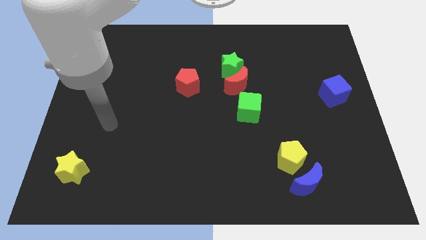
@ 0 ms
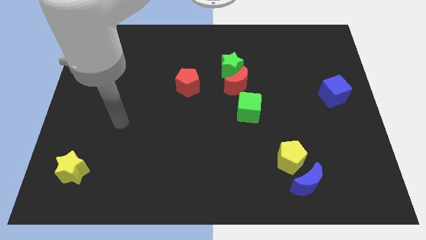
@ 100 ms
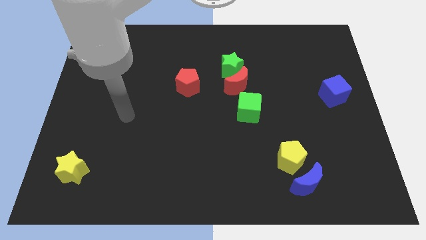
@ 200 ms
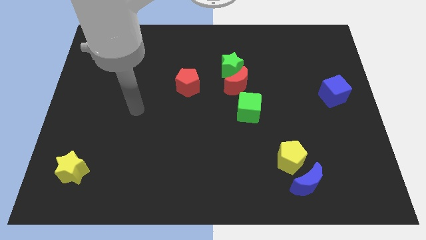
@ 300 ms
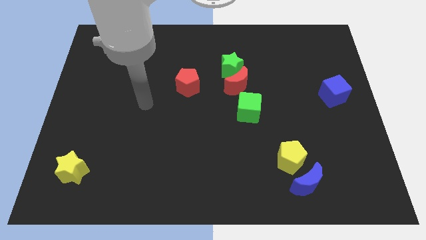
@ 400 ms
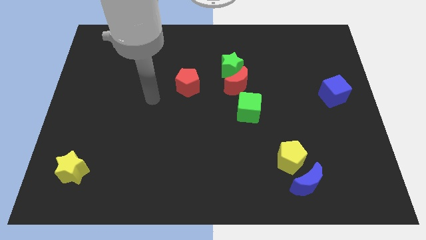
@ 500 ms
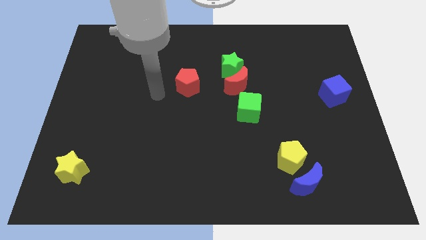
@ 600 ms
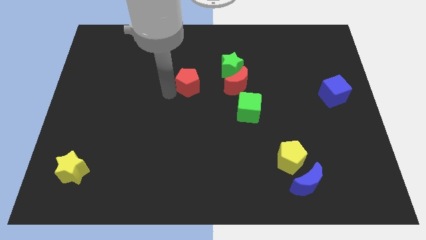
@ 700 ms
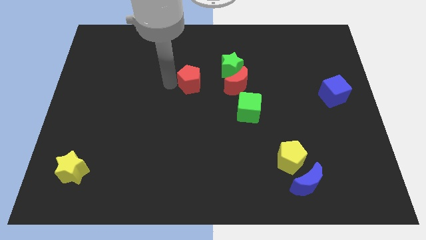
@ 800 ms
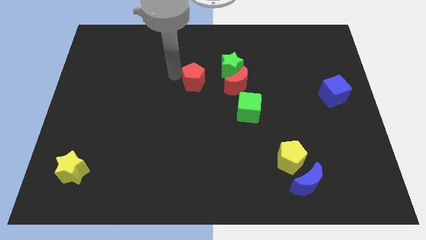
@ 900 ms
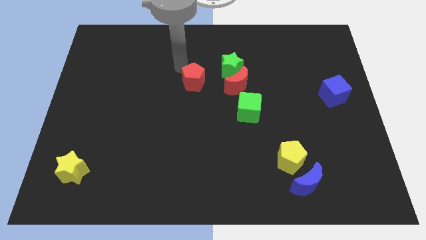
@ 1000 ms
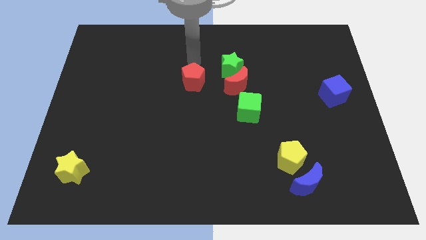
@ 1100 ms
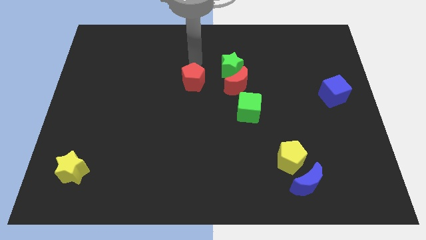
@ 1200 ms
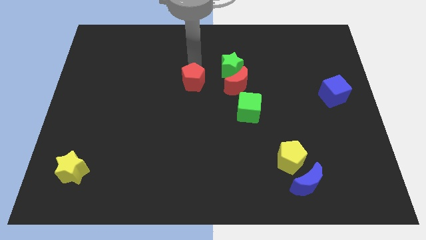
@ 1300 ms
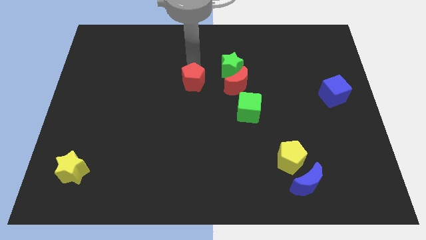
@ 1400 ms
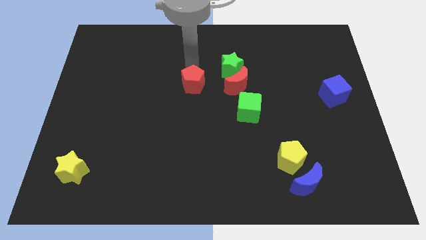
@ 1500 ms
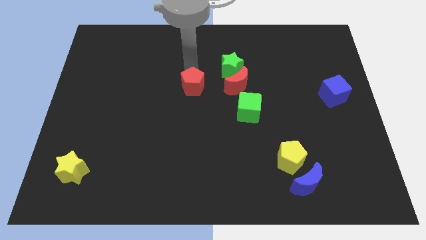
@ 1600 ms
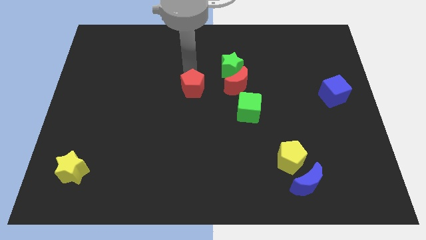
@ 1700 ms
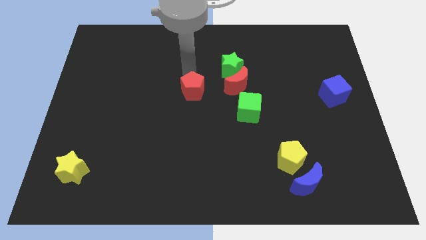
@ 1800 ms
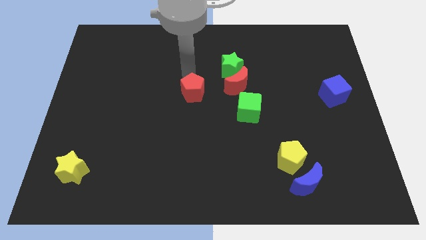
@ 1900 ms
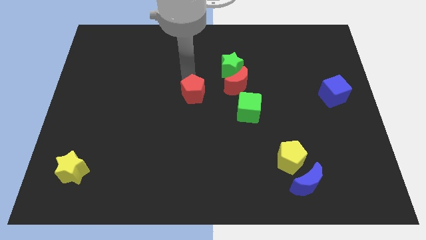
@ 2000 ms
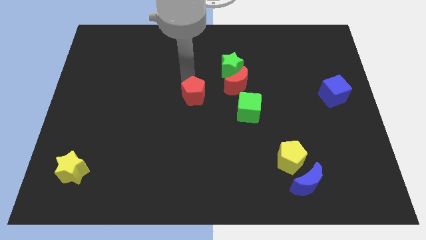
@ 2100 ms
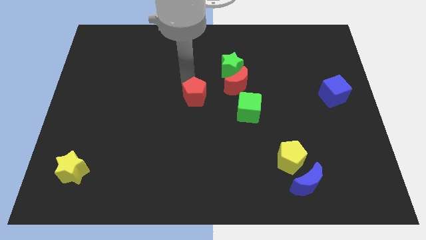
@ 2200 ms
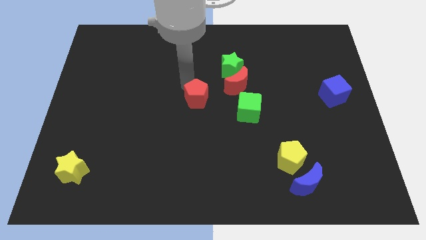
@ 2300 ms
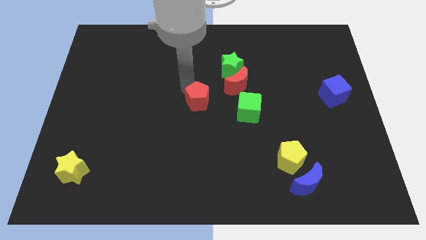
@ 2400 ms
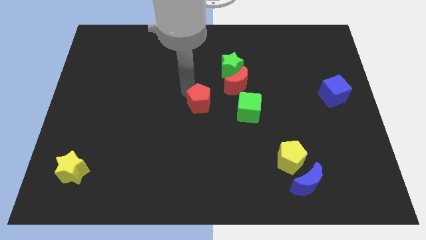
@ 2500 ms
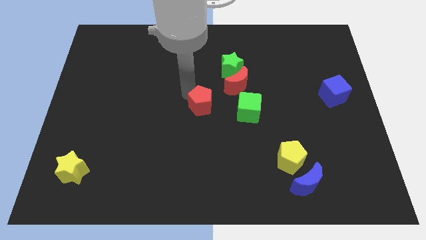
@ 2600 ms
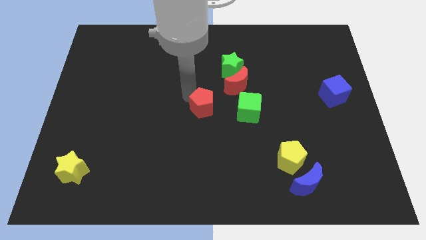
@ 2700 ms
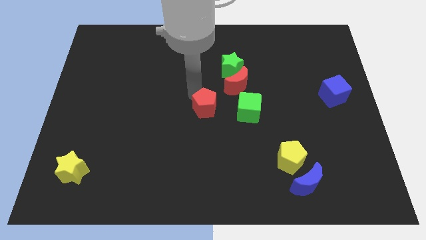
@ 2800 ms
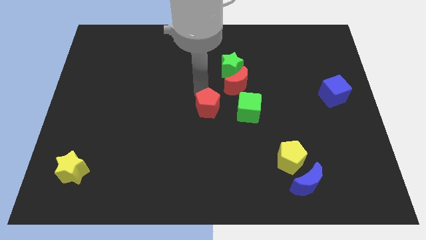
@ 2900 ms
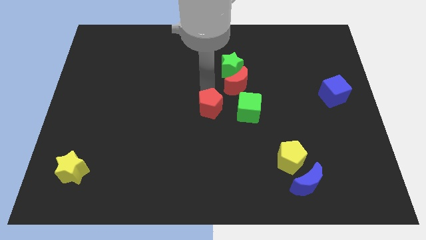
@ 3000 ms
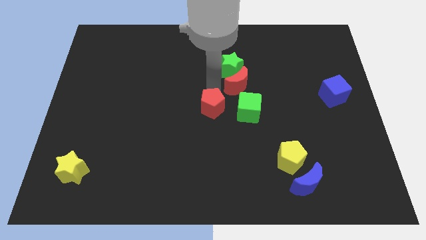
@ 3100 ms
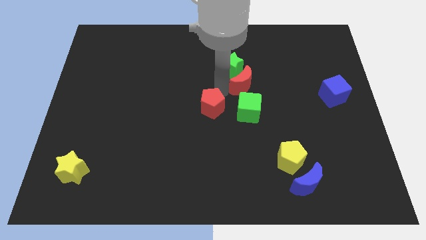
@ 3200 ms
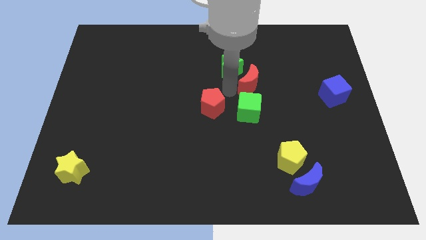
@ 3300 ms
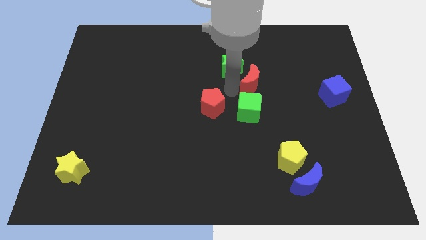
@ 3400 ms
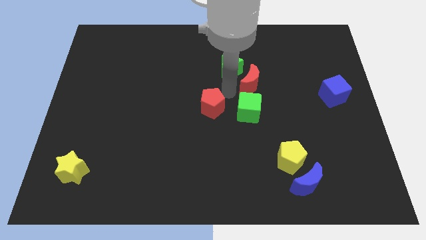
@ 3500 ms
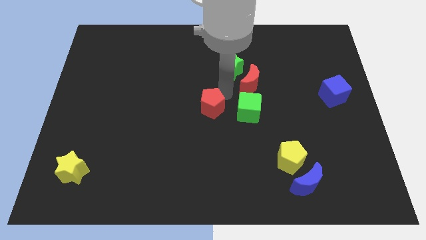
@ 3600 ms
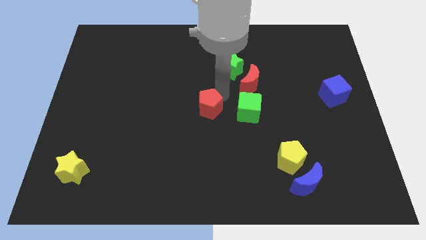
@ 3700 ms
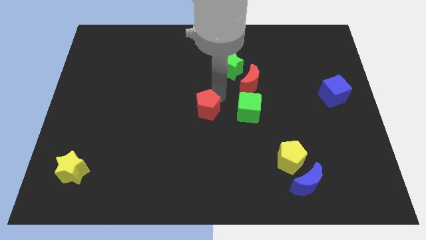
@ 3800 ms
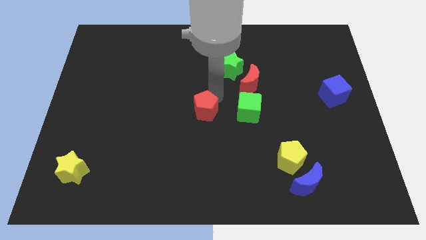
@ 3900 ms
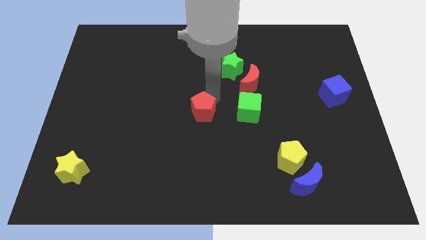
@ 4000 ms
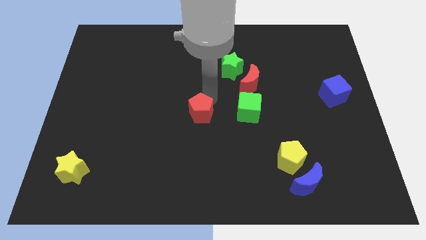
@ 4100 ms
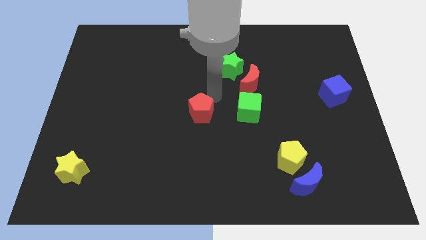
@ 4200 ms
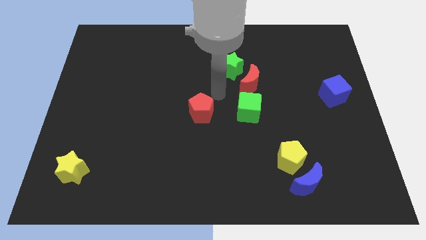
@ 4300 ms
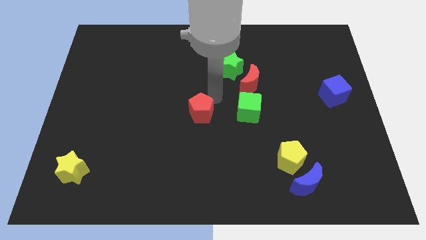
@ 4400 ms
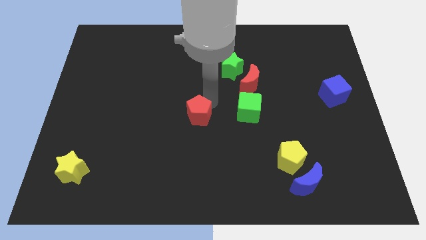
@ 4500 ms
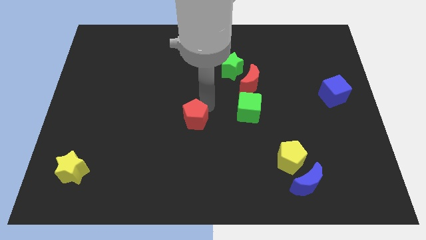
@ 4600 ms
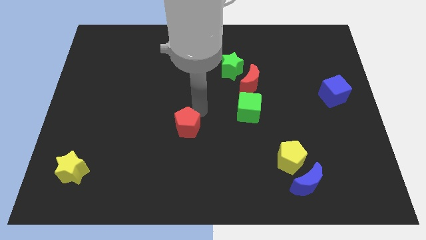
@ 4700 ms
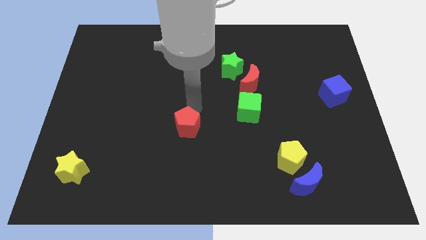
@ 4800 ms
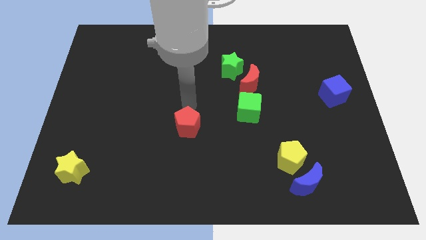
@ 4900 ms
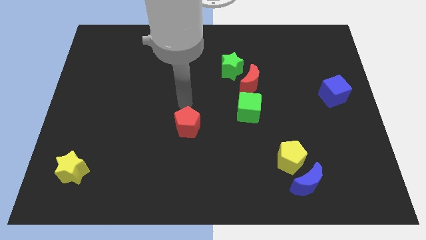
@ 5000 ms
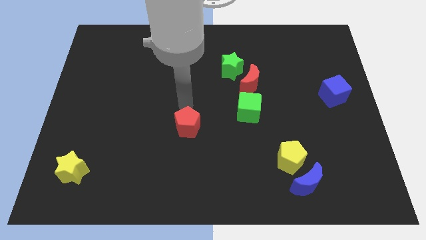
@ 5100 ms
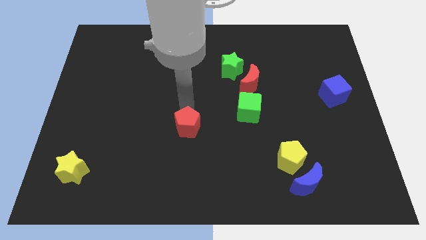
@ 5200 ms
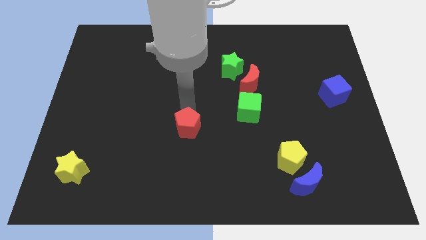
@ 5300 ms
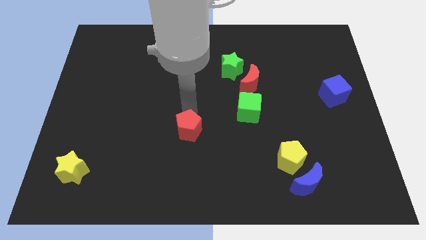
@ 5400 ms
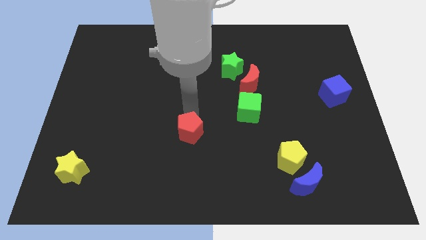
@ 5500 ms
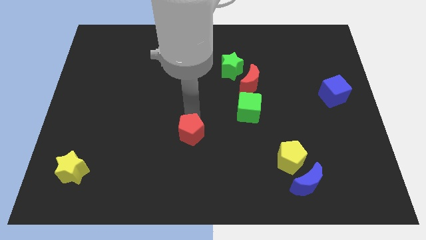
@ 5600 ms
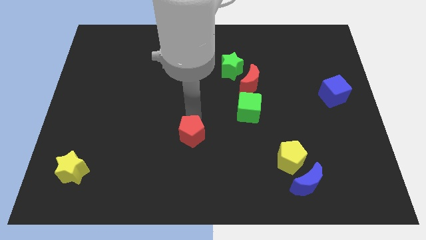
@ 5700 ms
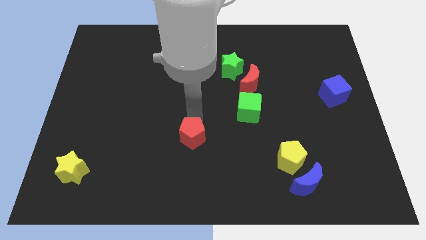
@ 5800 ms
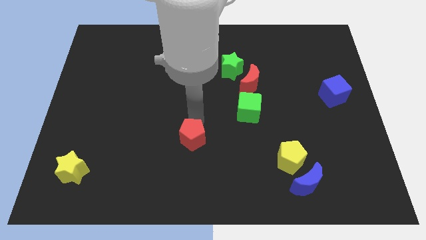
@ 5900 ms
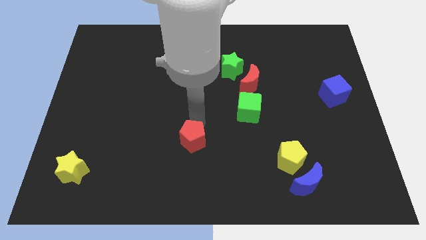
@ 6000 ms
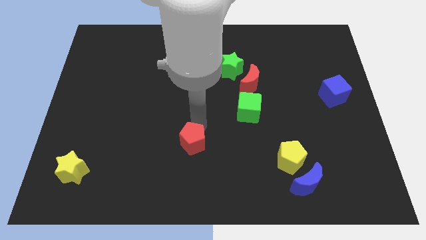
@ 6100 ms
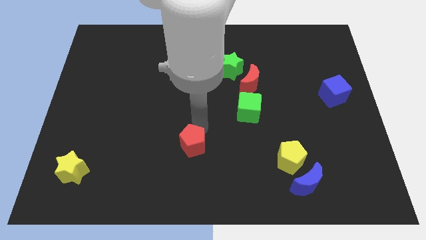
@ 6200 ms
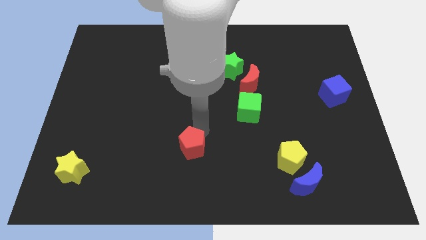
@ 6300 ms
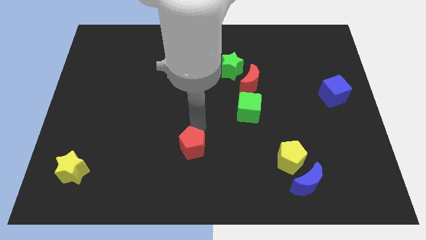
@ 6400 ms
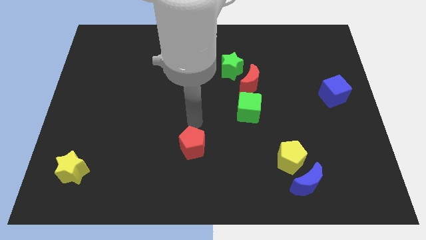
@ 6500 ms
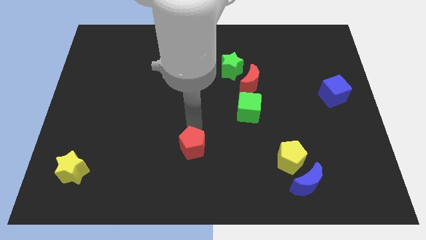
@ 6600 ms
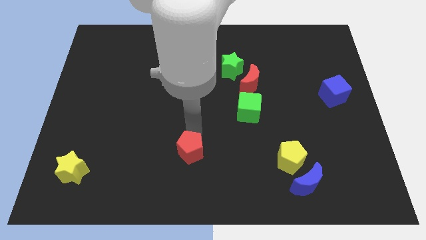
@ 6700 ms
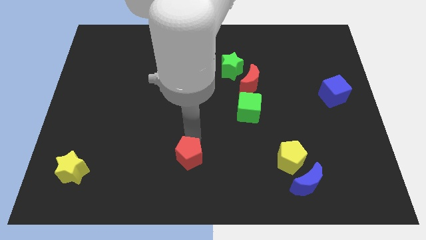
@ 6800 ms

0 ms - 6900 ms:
put the red pentagon to the bottom
